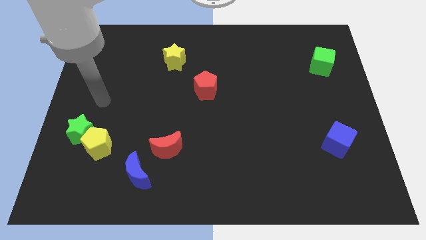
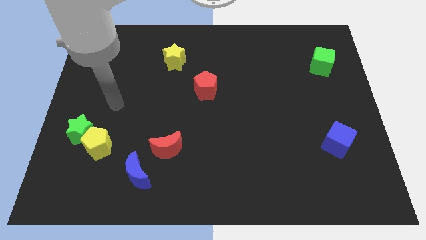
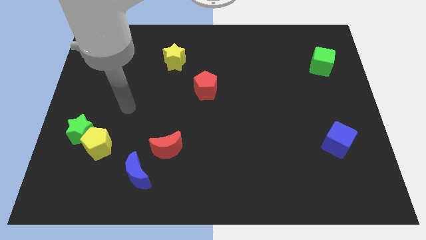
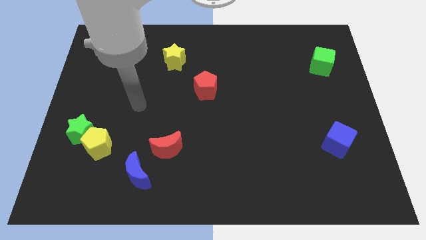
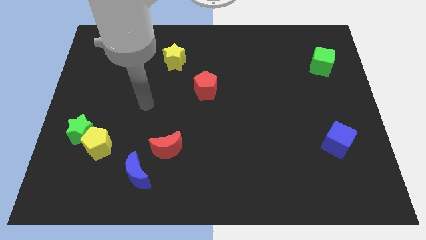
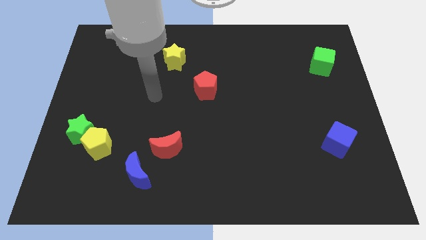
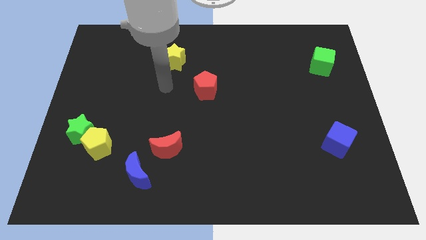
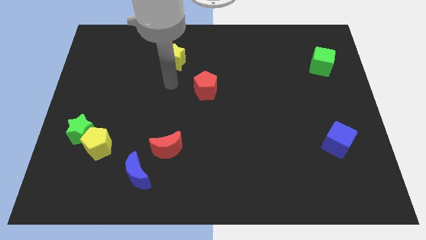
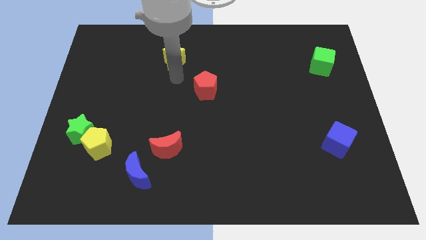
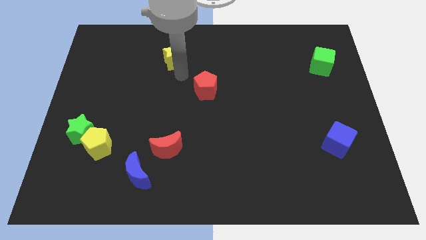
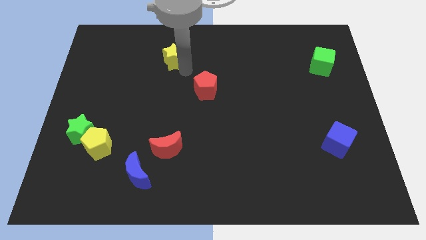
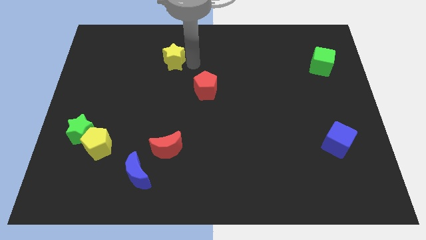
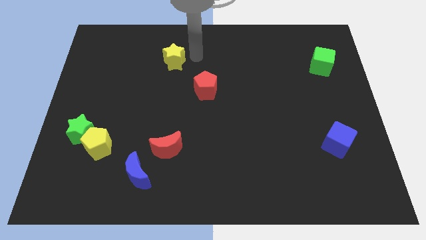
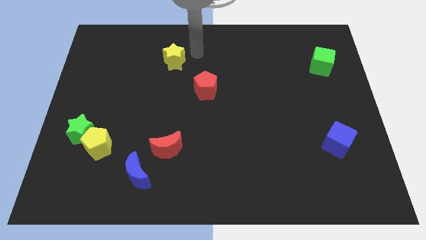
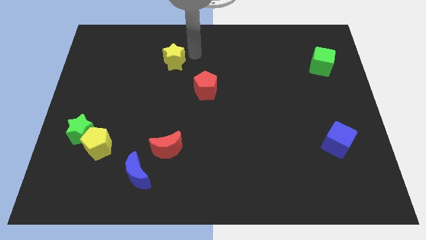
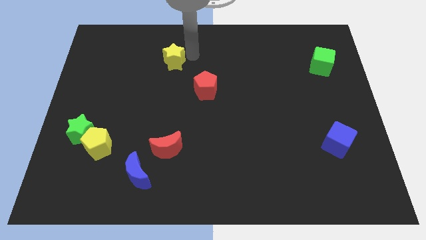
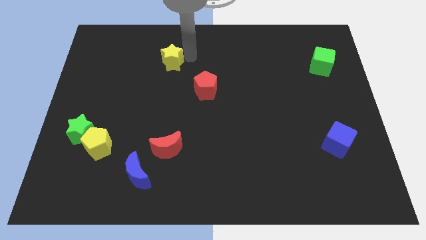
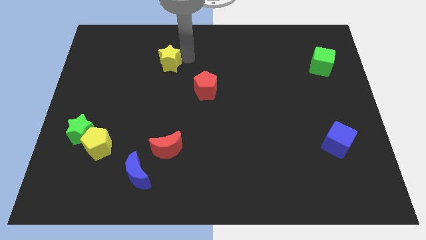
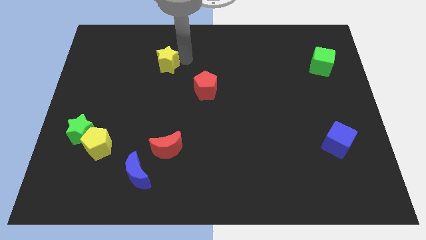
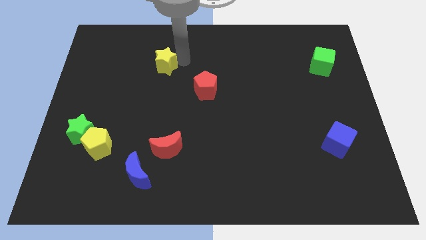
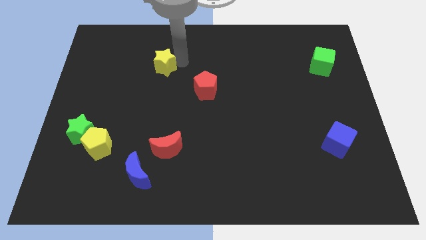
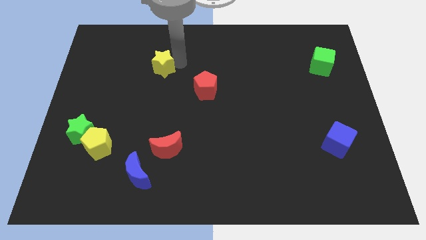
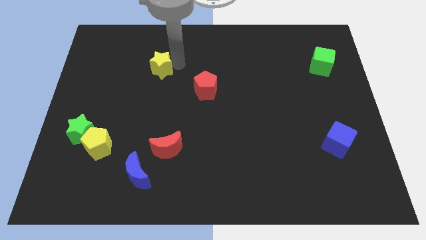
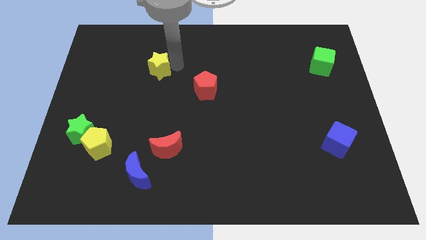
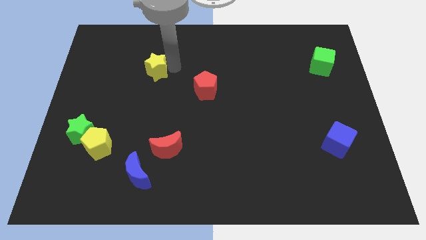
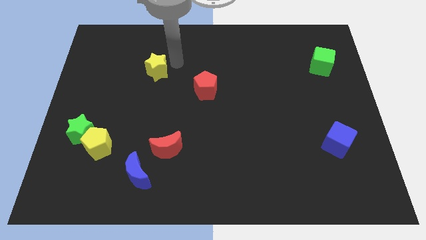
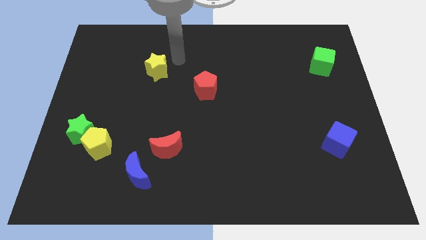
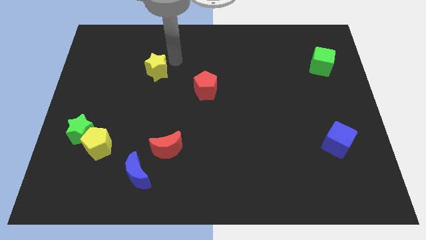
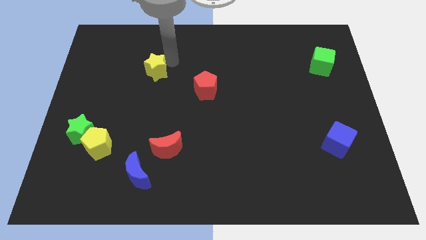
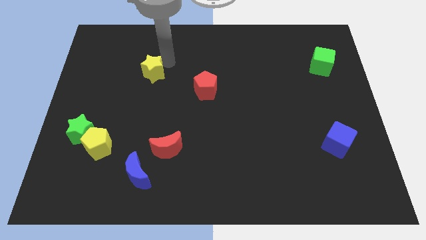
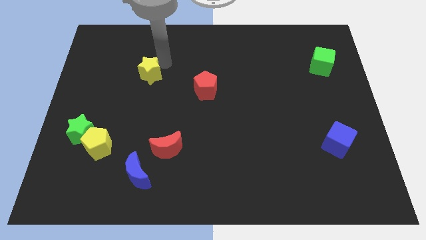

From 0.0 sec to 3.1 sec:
push the yellow star diagonally down and left somewhat

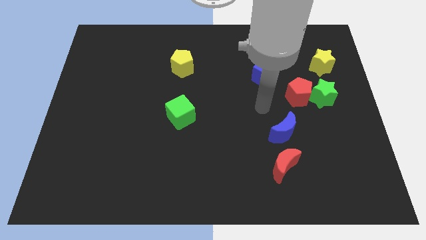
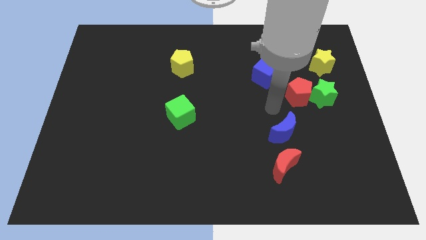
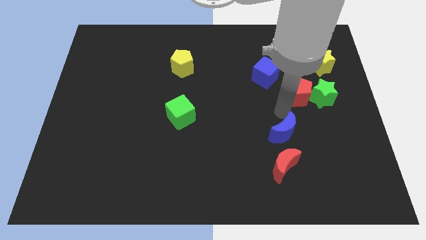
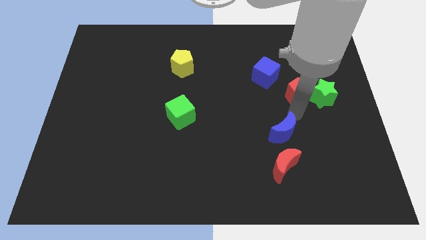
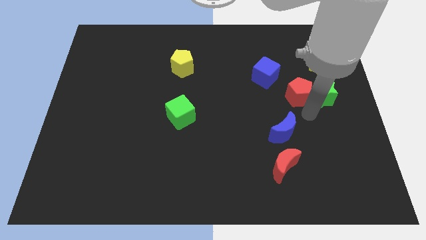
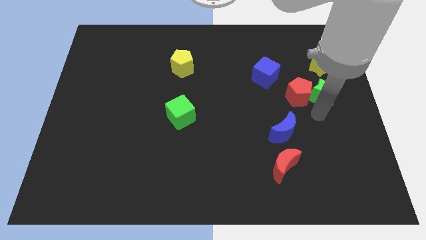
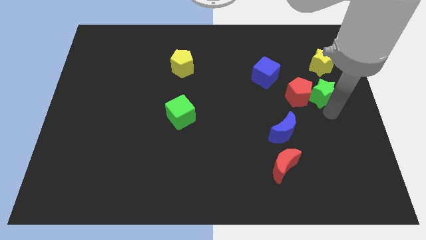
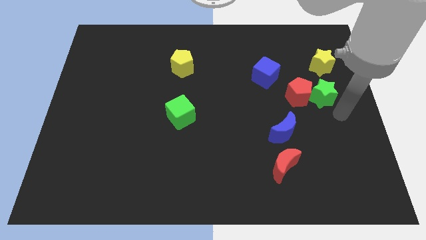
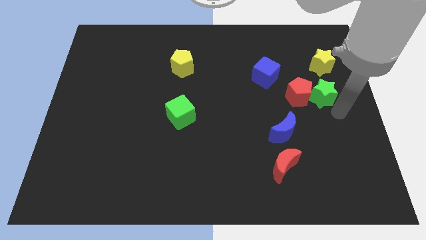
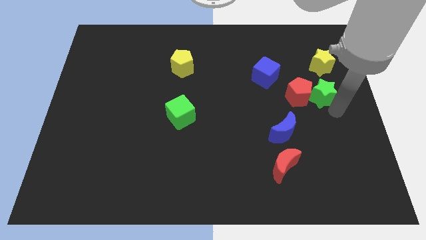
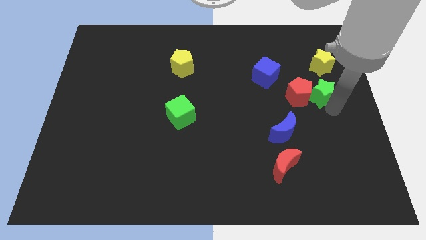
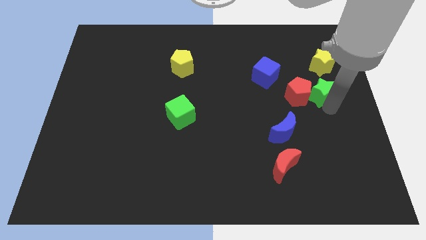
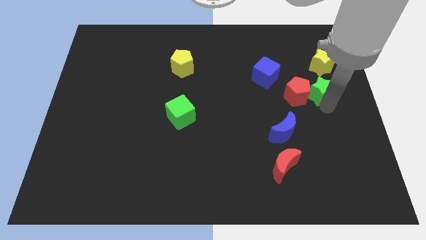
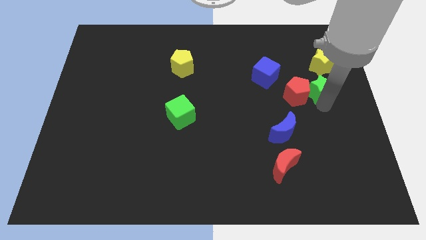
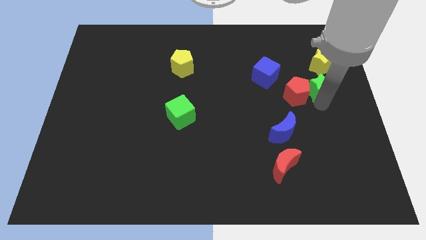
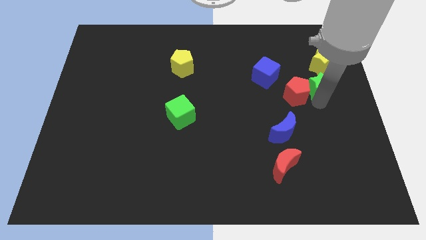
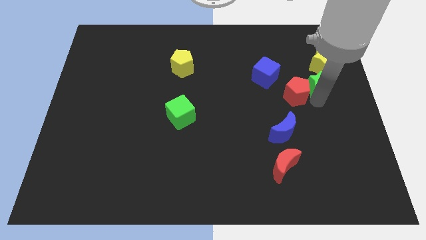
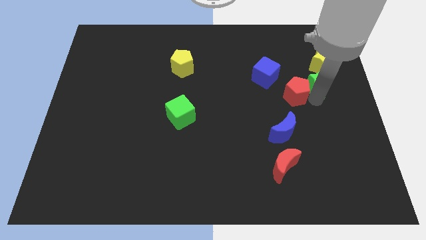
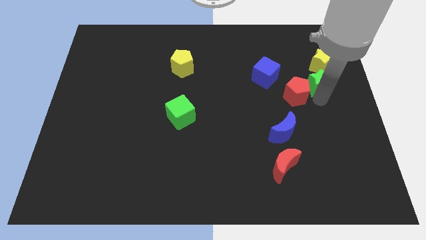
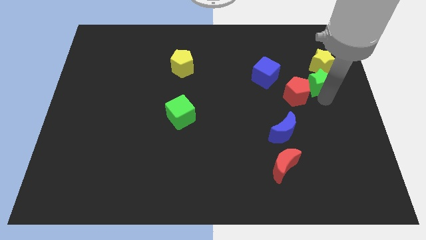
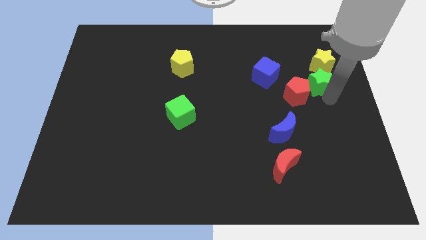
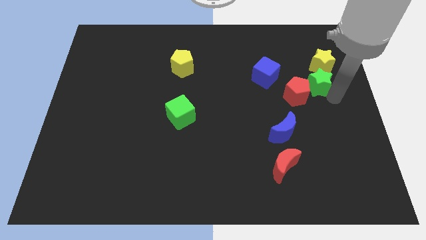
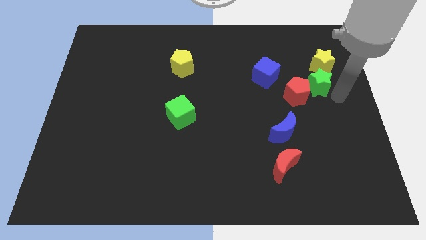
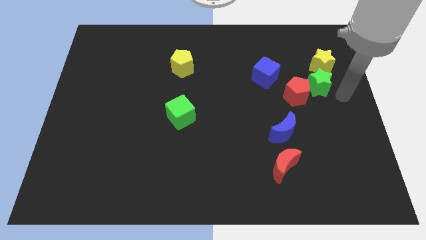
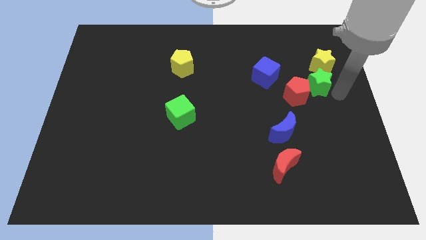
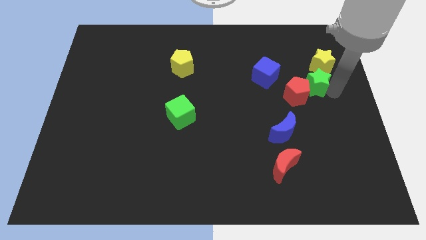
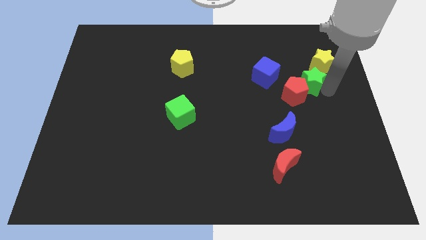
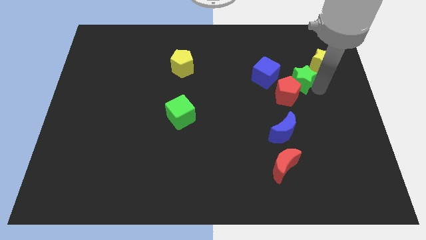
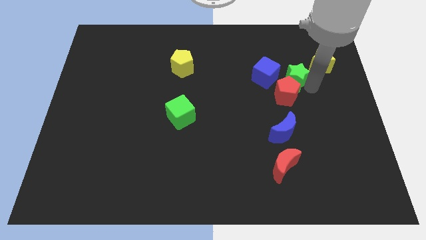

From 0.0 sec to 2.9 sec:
slightly move the green star up and then to the left

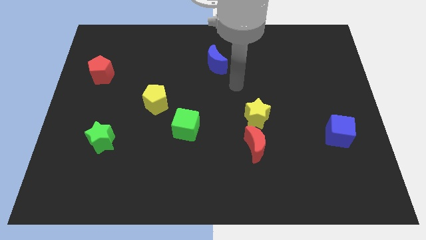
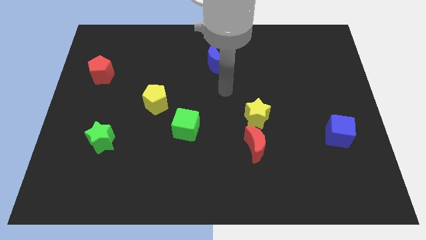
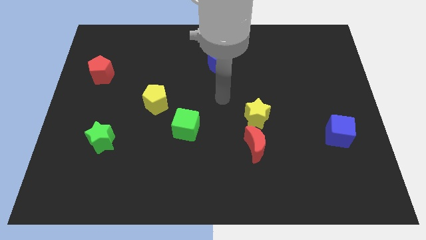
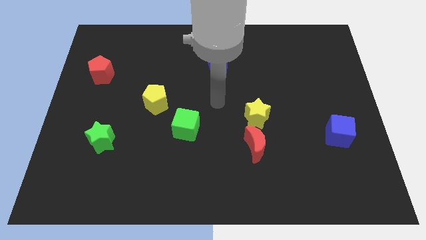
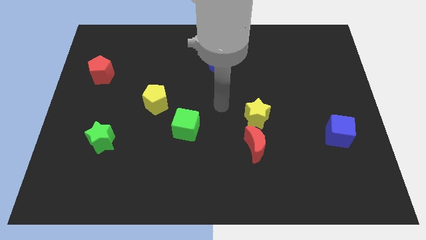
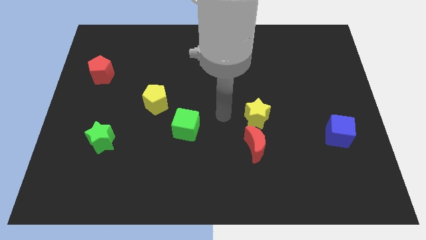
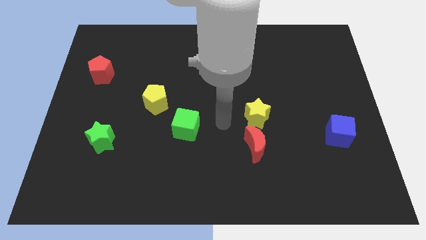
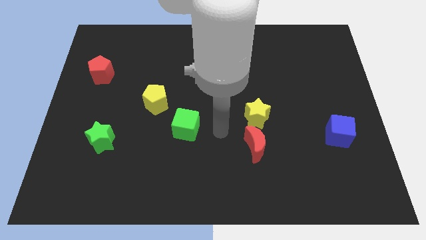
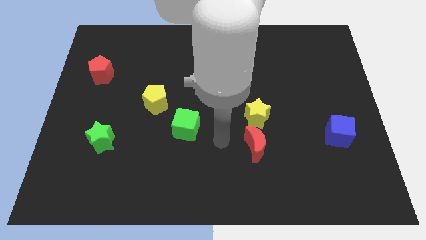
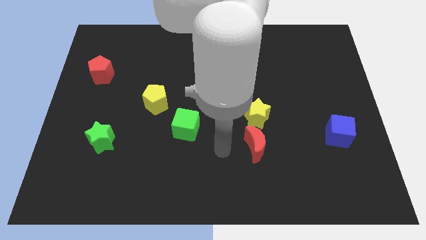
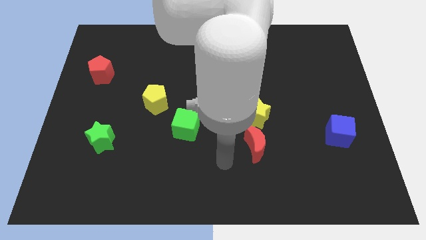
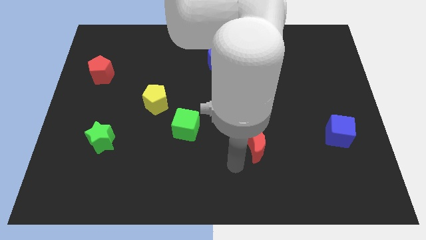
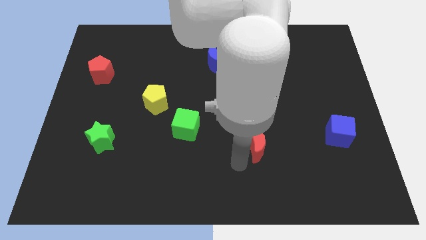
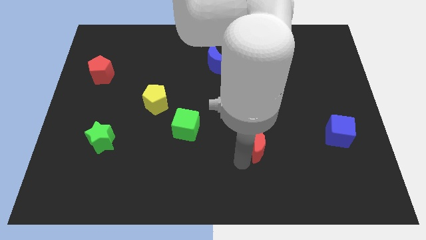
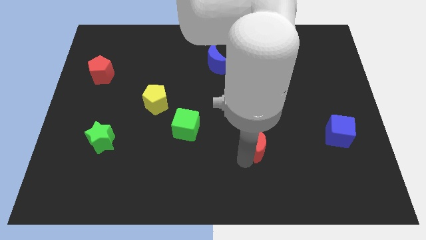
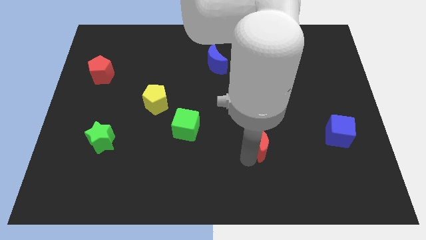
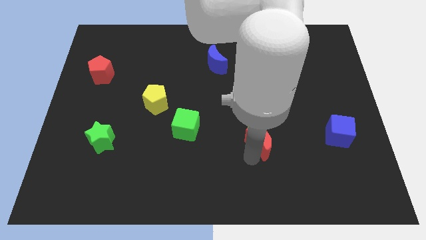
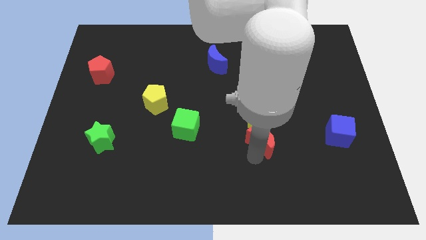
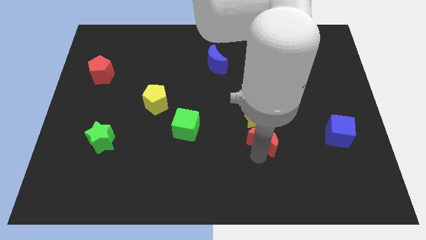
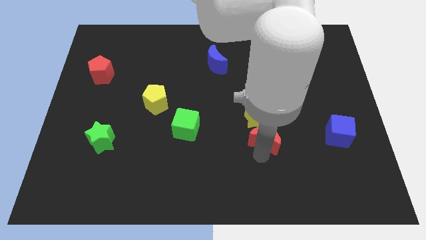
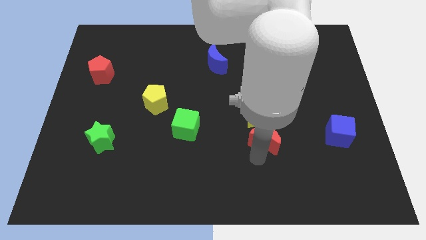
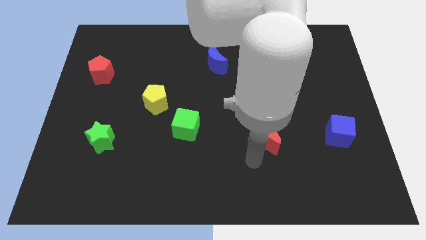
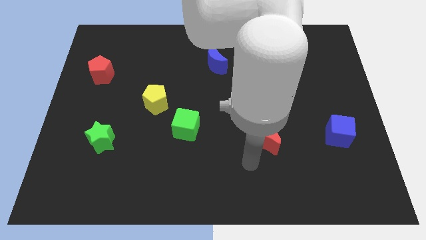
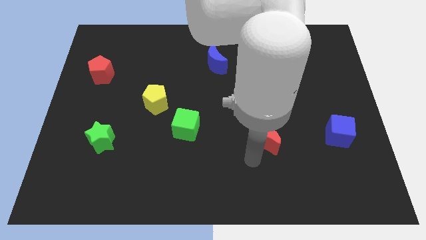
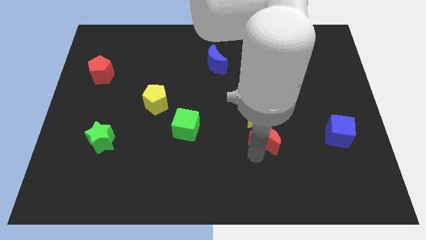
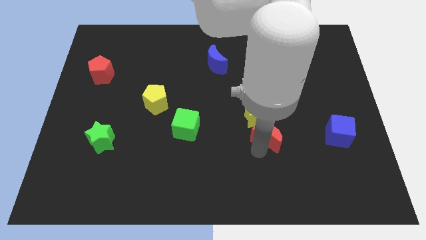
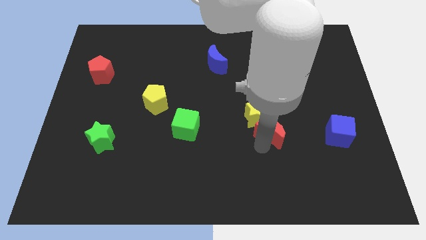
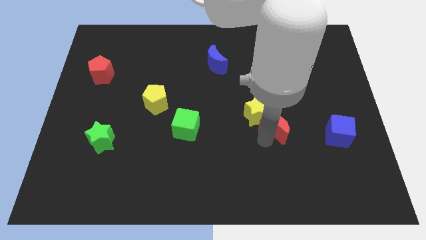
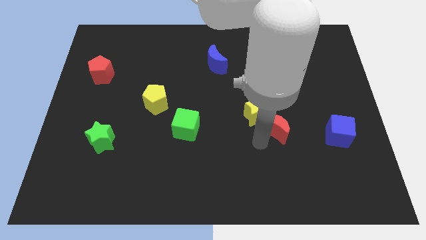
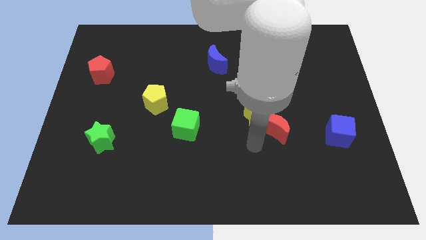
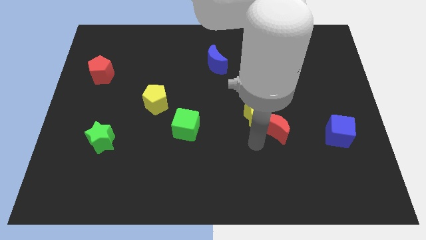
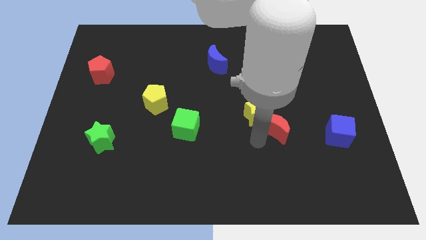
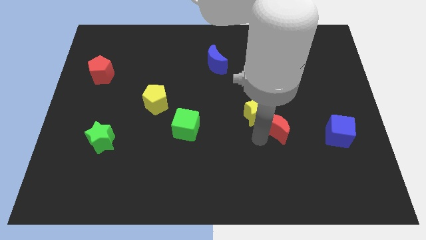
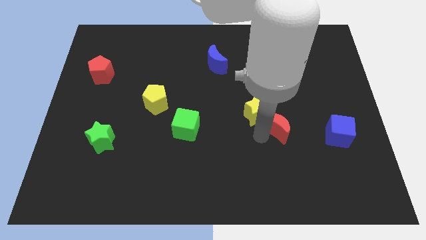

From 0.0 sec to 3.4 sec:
move the red moon up and then to the right somewhat
